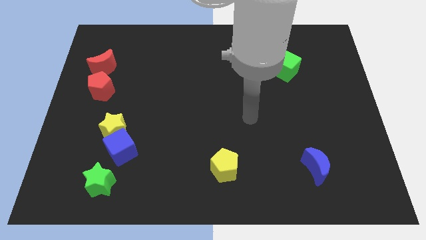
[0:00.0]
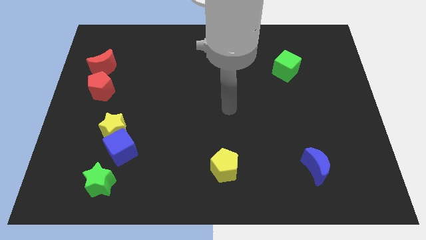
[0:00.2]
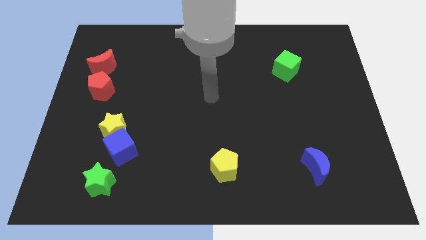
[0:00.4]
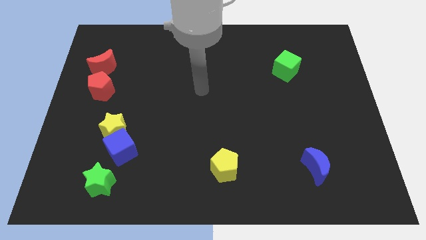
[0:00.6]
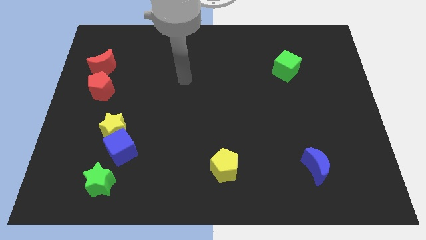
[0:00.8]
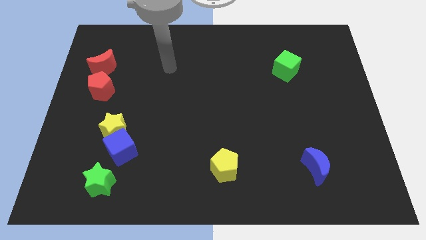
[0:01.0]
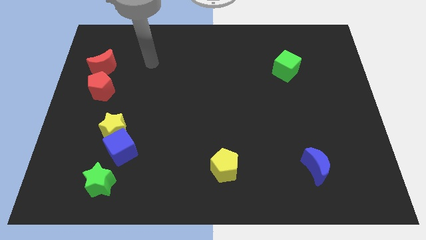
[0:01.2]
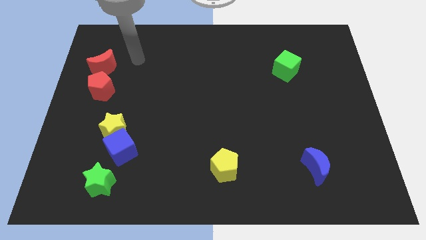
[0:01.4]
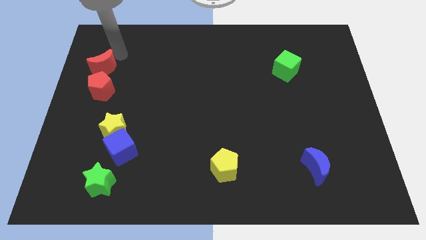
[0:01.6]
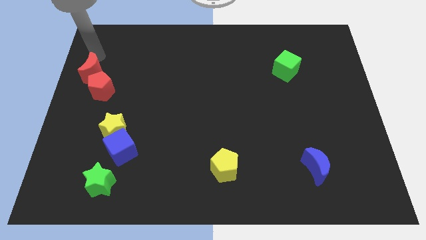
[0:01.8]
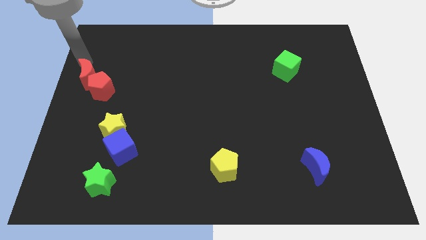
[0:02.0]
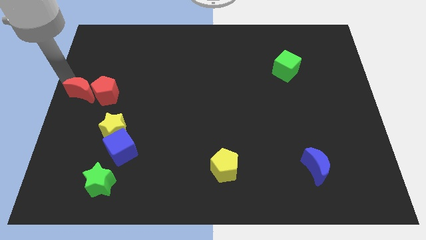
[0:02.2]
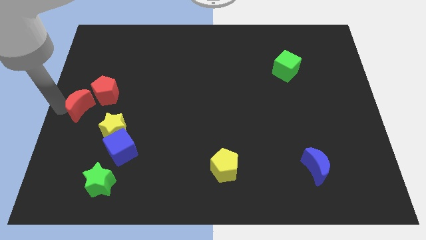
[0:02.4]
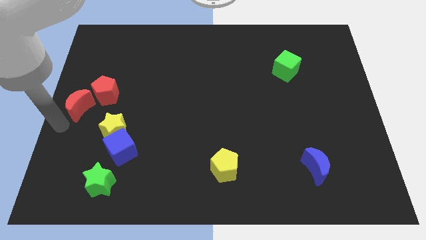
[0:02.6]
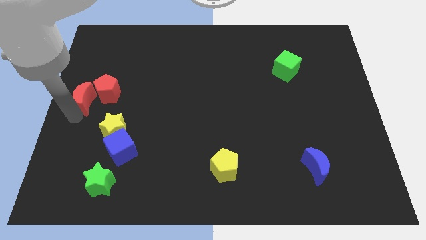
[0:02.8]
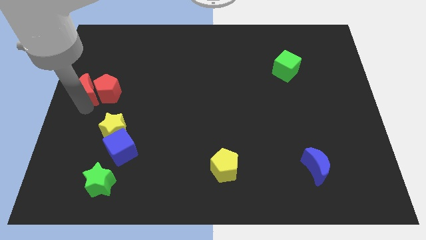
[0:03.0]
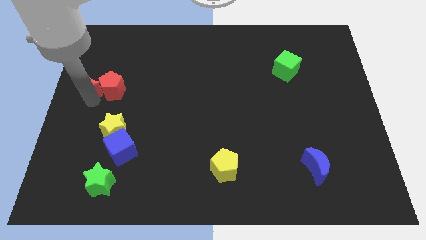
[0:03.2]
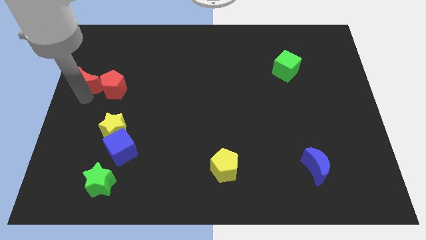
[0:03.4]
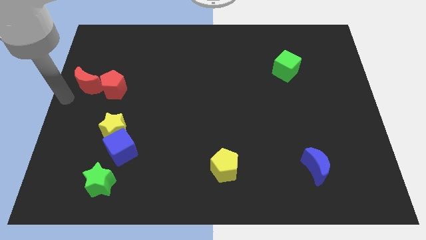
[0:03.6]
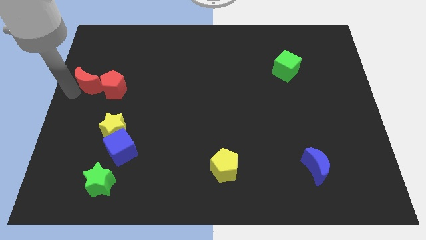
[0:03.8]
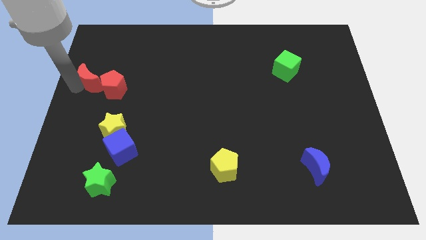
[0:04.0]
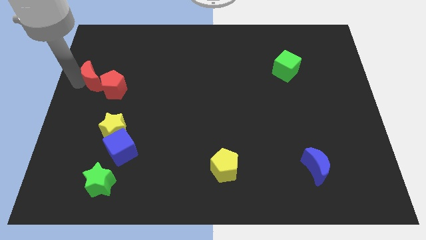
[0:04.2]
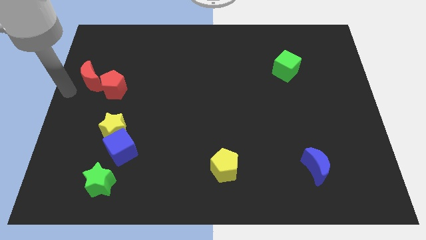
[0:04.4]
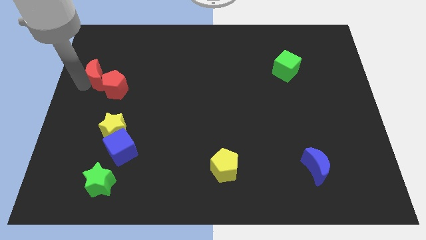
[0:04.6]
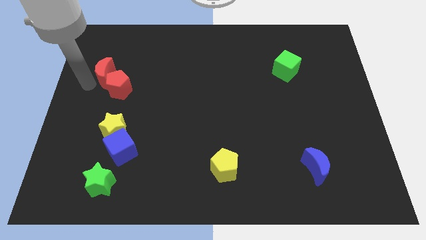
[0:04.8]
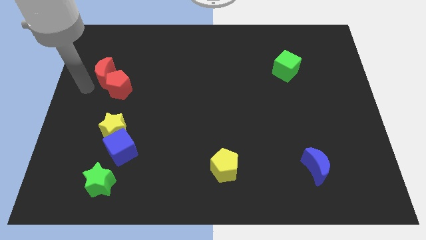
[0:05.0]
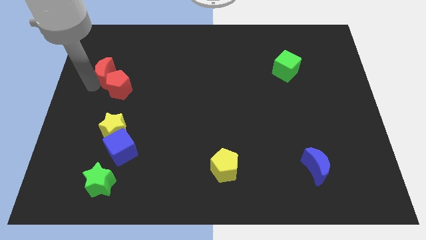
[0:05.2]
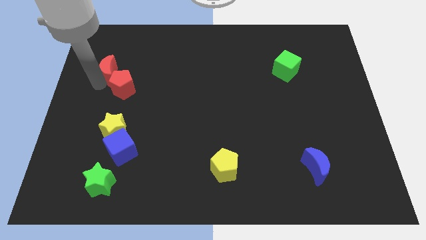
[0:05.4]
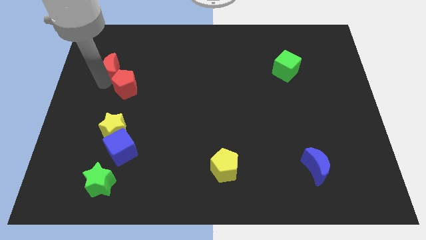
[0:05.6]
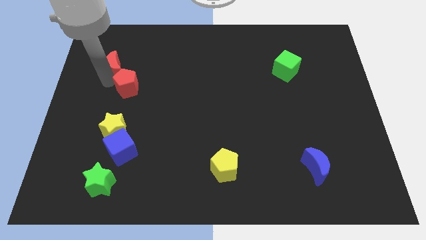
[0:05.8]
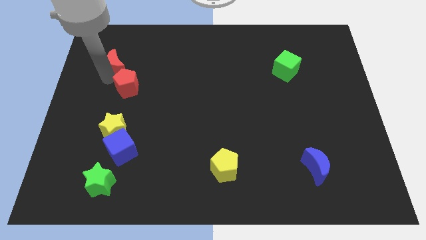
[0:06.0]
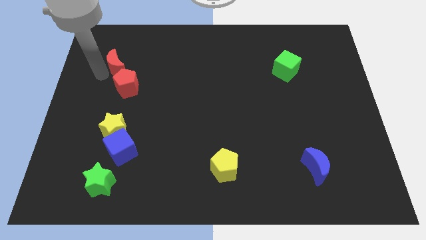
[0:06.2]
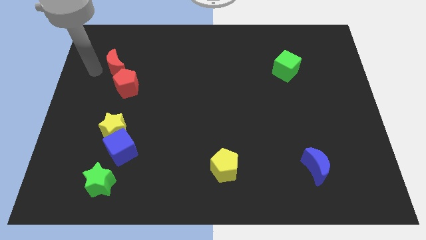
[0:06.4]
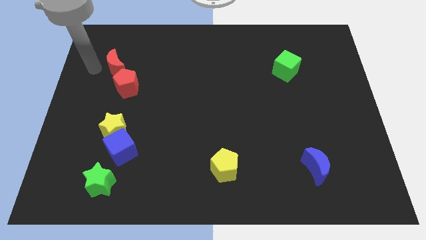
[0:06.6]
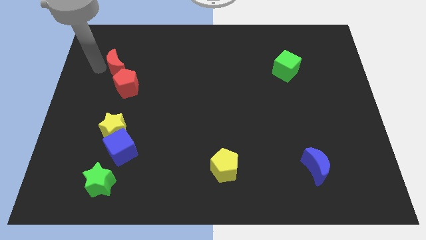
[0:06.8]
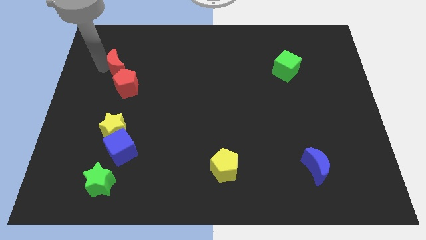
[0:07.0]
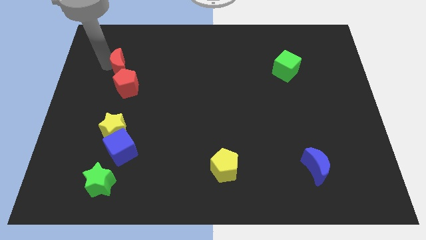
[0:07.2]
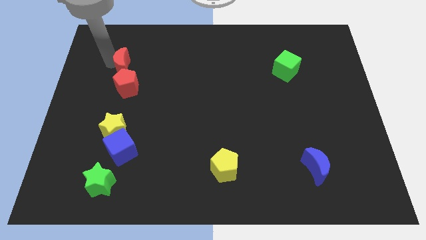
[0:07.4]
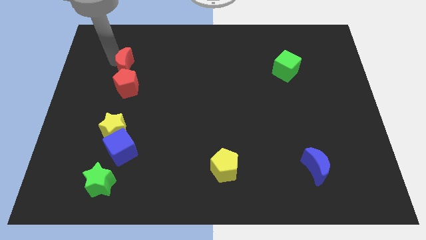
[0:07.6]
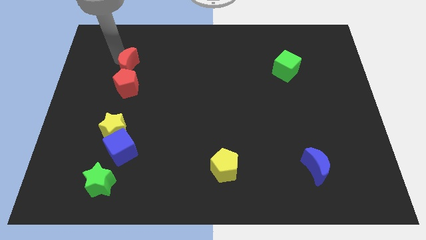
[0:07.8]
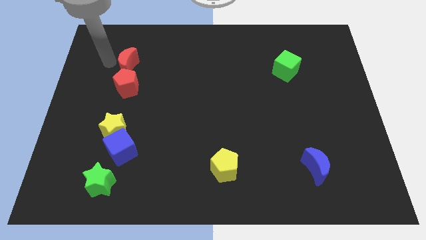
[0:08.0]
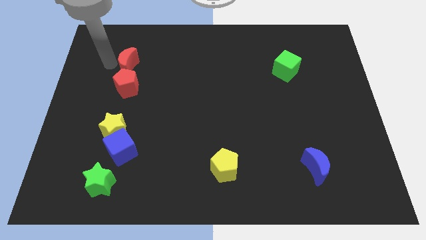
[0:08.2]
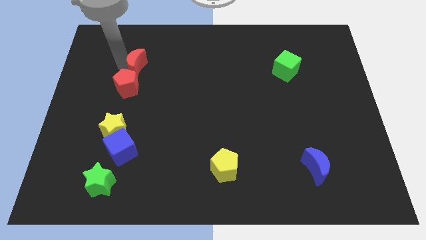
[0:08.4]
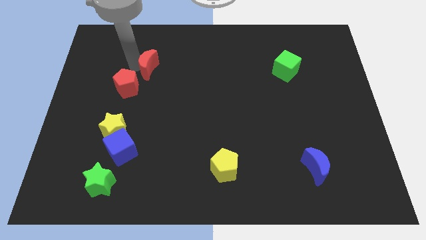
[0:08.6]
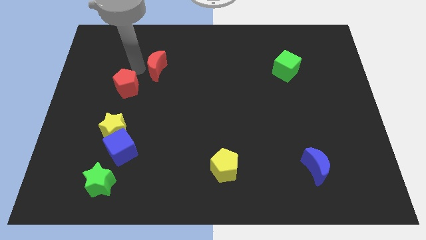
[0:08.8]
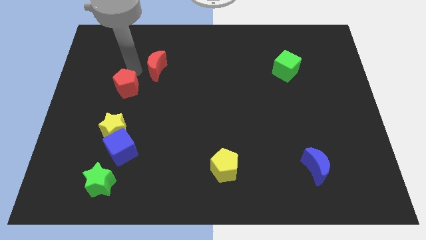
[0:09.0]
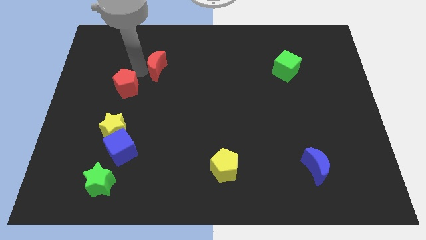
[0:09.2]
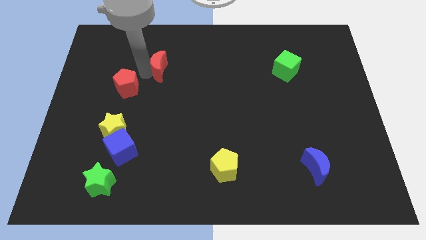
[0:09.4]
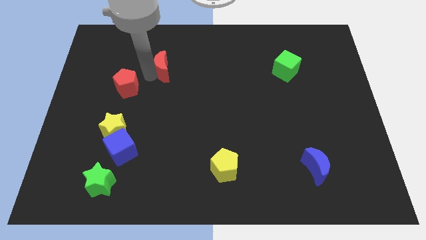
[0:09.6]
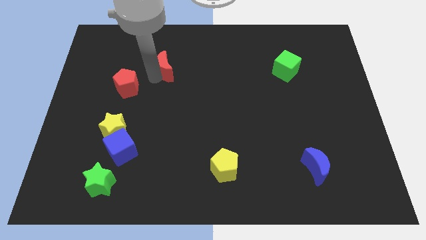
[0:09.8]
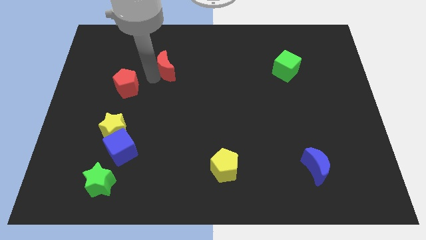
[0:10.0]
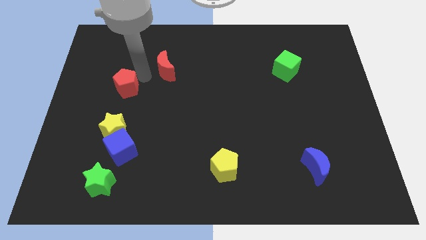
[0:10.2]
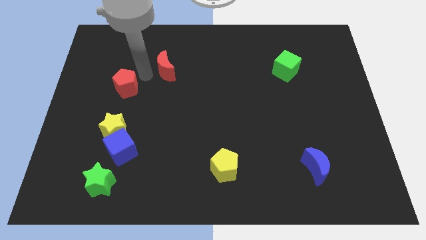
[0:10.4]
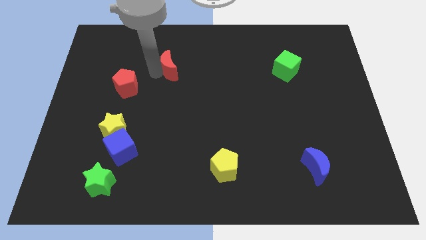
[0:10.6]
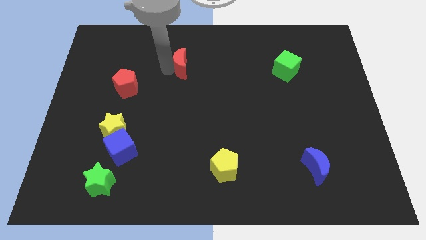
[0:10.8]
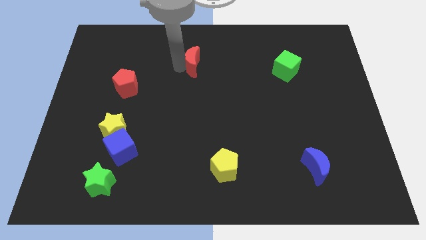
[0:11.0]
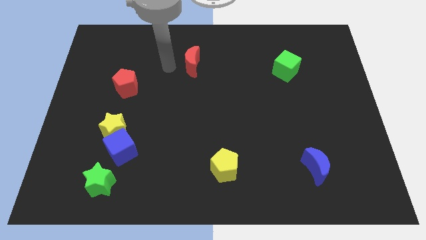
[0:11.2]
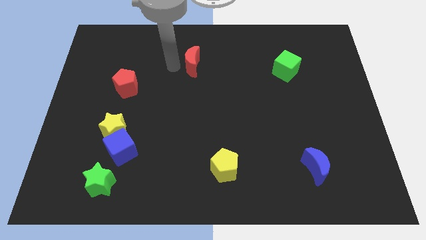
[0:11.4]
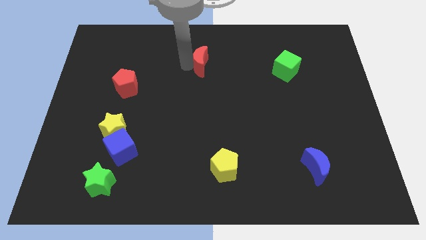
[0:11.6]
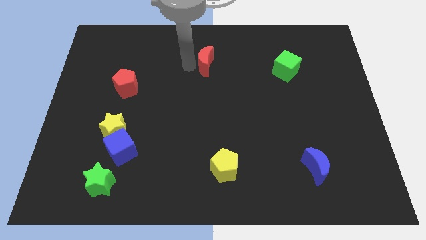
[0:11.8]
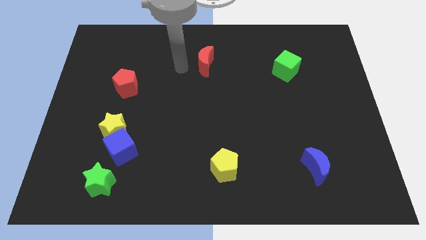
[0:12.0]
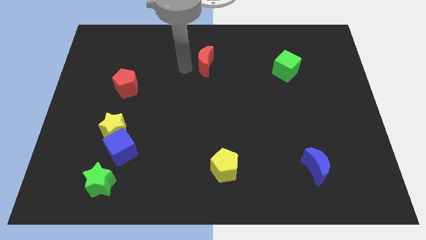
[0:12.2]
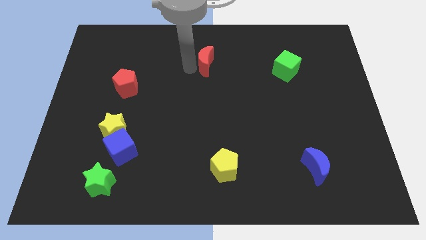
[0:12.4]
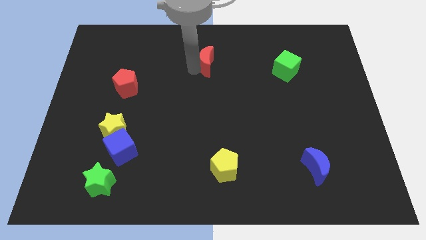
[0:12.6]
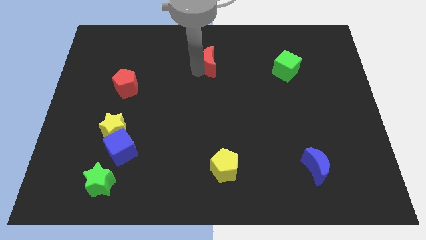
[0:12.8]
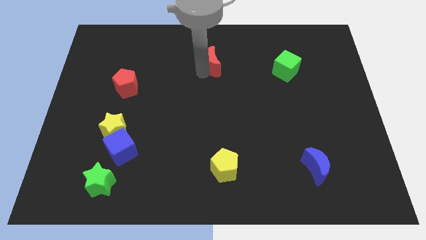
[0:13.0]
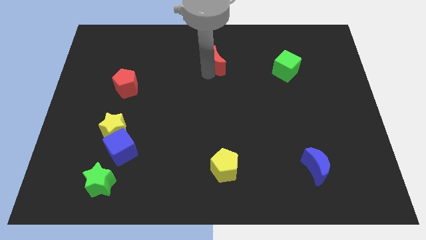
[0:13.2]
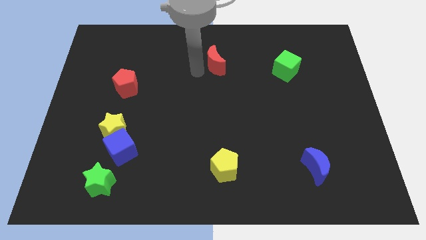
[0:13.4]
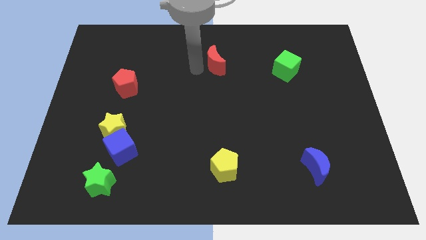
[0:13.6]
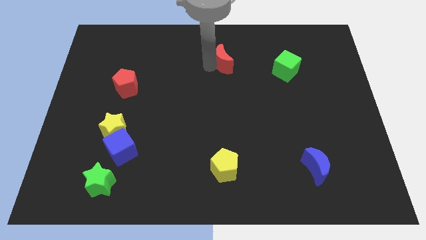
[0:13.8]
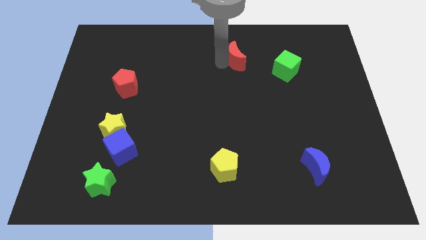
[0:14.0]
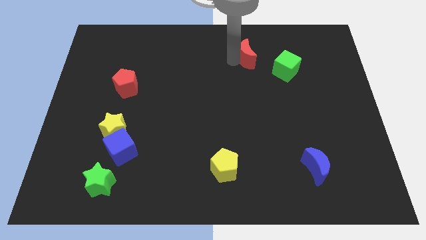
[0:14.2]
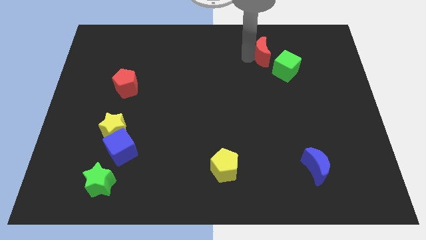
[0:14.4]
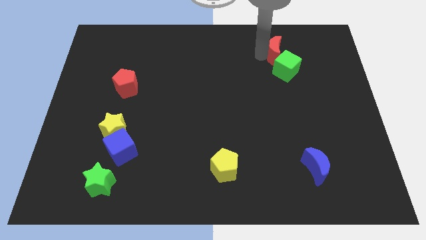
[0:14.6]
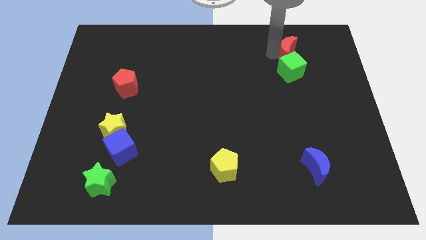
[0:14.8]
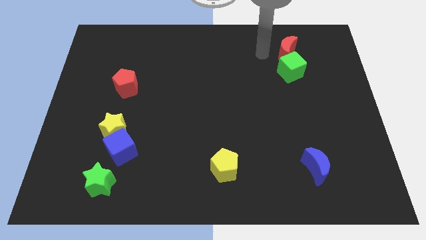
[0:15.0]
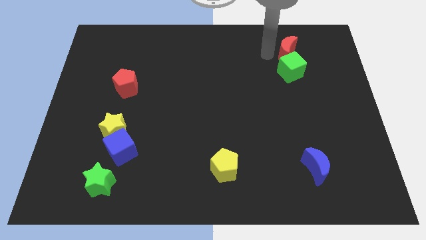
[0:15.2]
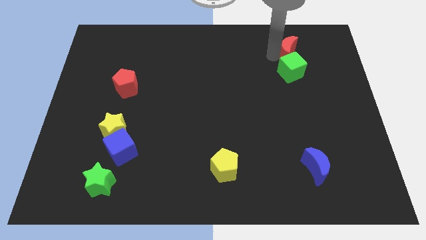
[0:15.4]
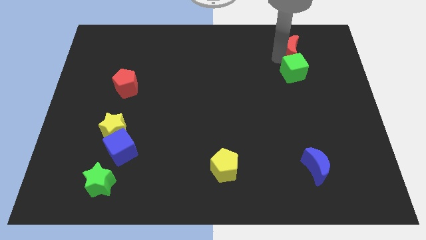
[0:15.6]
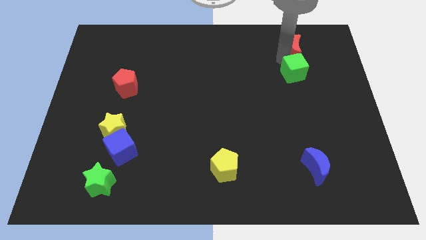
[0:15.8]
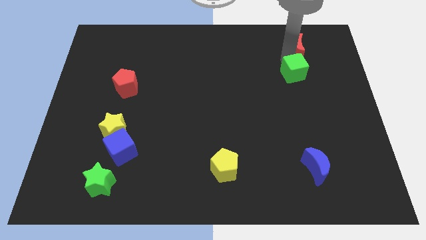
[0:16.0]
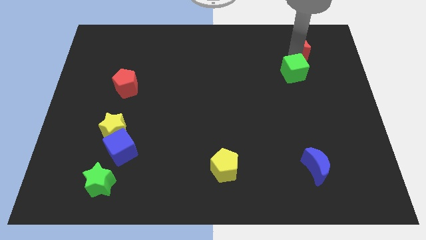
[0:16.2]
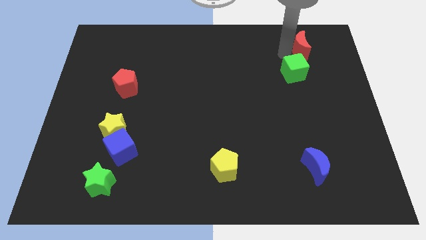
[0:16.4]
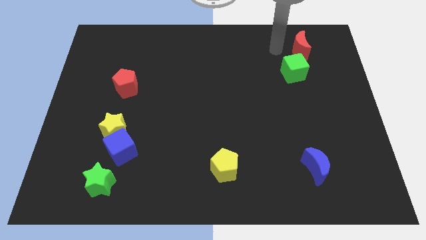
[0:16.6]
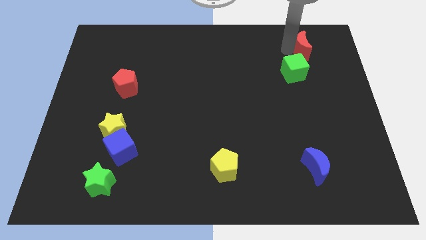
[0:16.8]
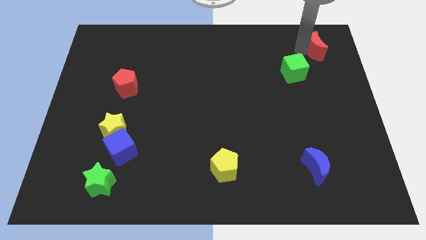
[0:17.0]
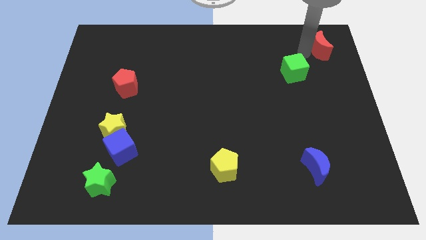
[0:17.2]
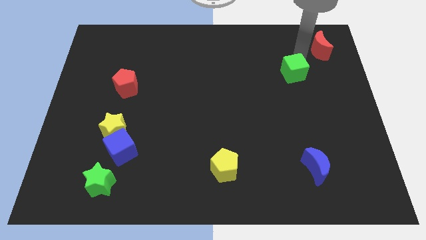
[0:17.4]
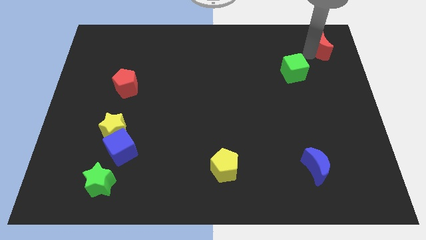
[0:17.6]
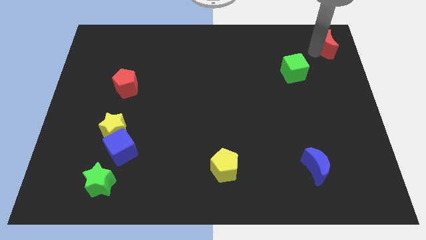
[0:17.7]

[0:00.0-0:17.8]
slide the red moon to the top right corner
